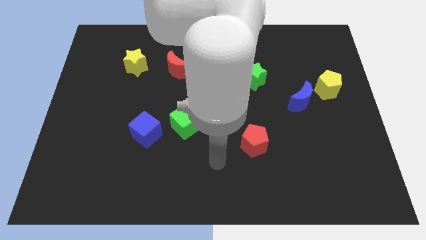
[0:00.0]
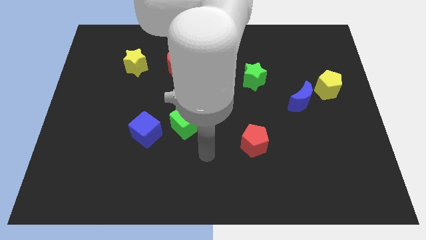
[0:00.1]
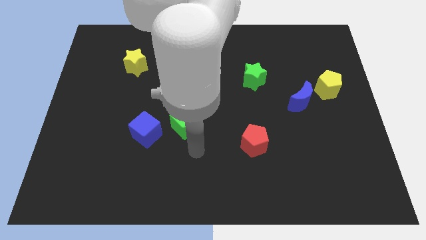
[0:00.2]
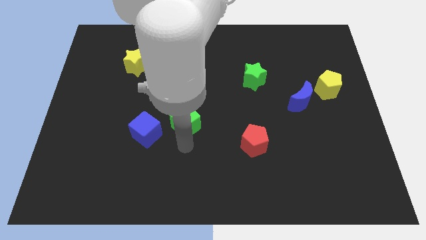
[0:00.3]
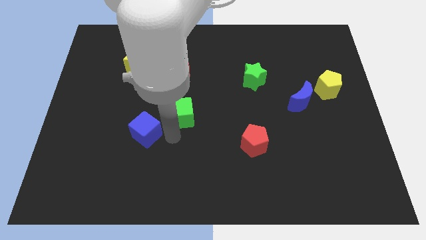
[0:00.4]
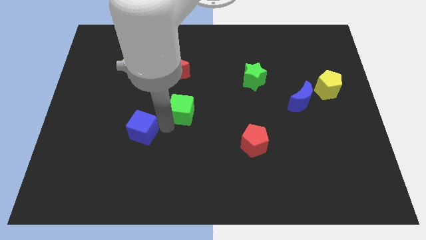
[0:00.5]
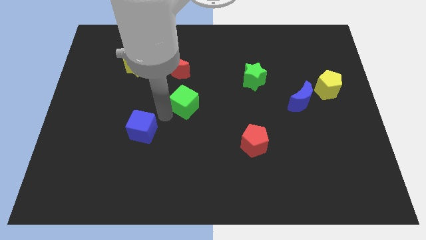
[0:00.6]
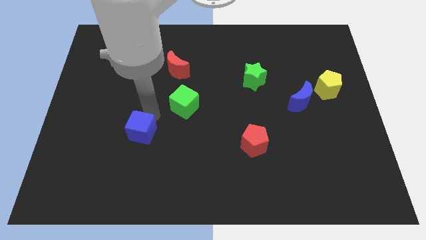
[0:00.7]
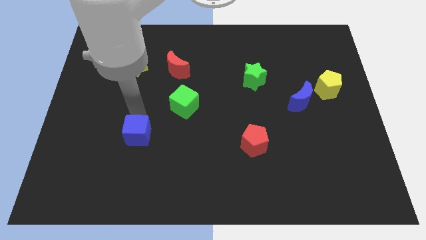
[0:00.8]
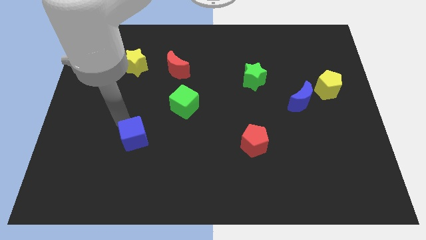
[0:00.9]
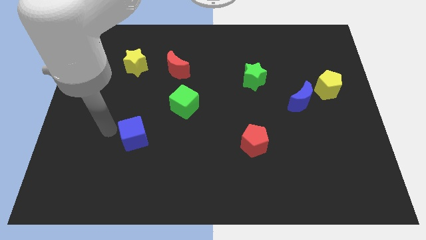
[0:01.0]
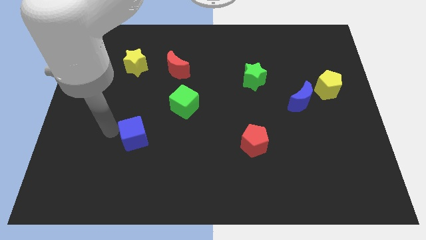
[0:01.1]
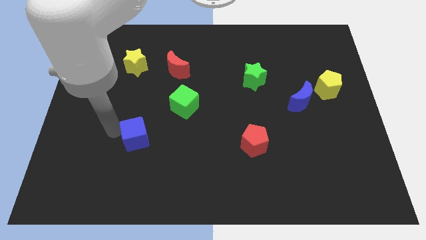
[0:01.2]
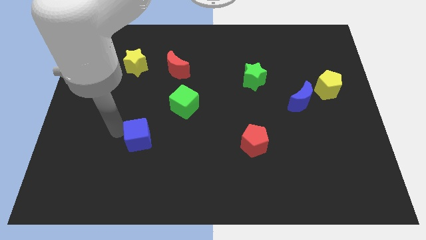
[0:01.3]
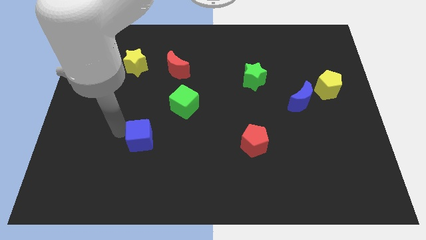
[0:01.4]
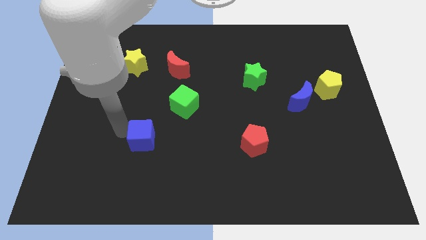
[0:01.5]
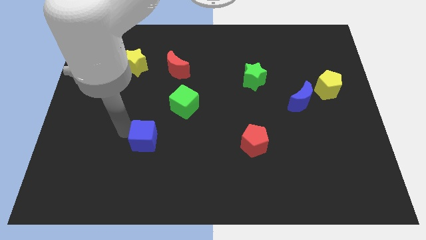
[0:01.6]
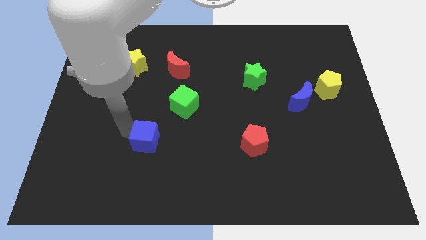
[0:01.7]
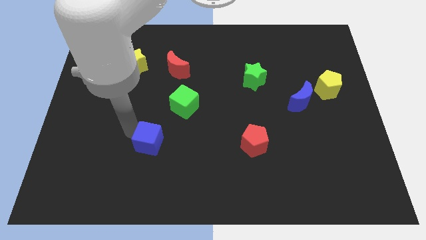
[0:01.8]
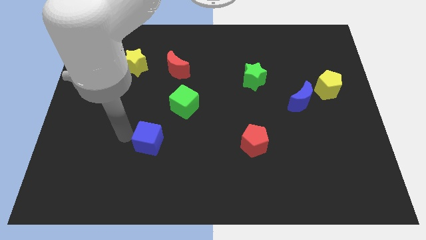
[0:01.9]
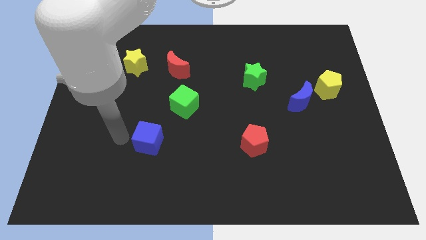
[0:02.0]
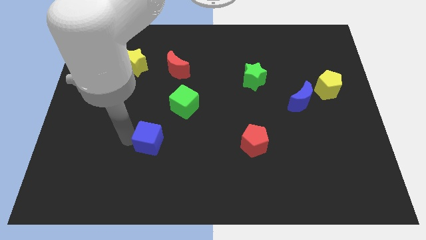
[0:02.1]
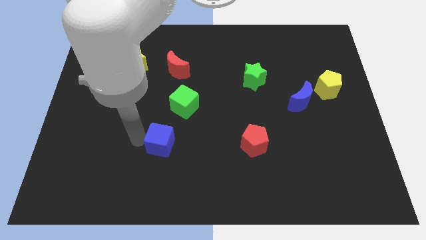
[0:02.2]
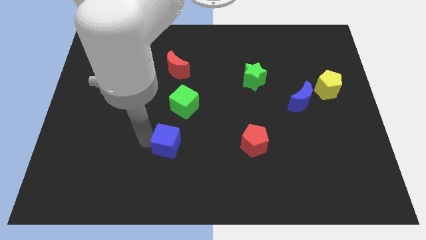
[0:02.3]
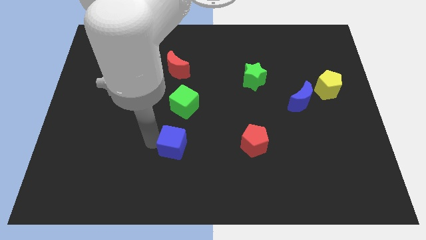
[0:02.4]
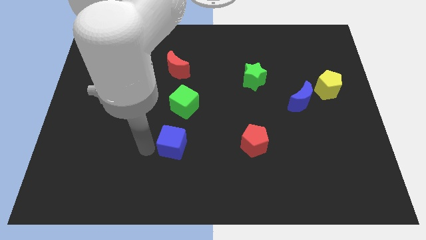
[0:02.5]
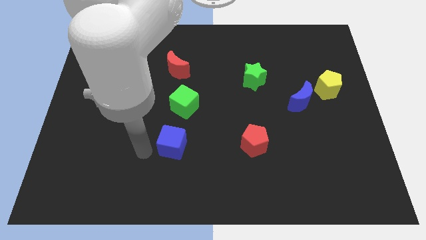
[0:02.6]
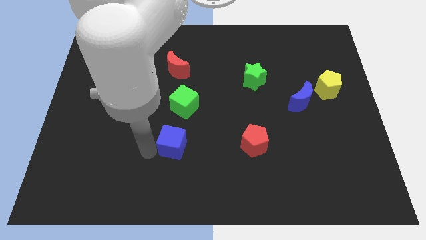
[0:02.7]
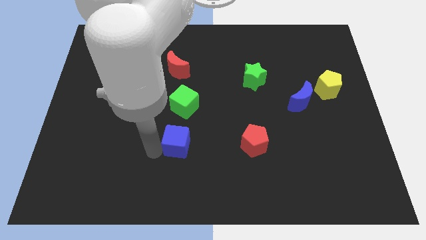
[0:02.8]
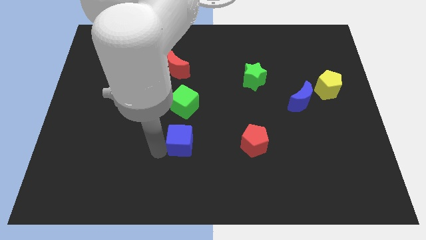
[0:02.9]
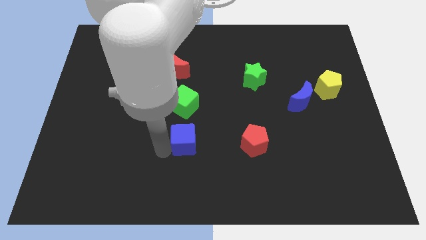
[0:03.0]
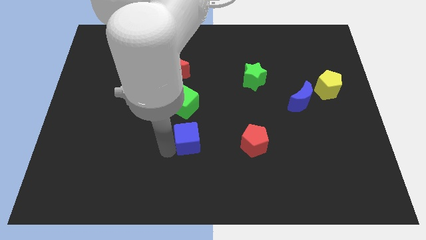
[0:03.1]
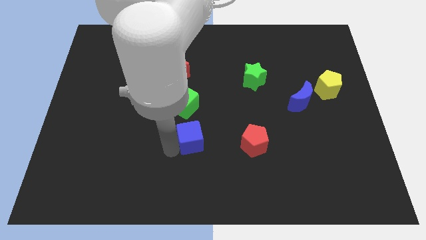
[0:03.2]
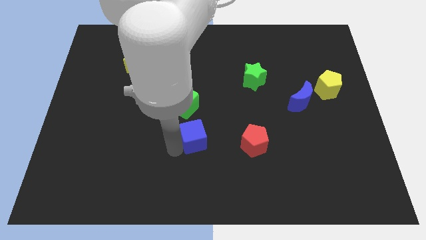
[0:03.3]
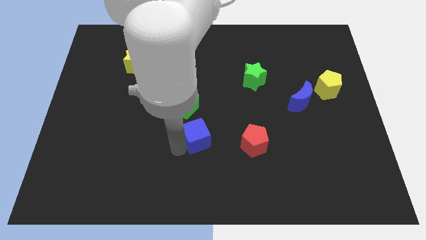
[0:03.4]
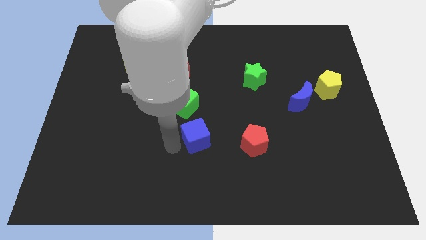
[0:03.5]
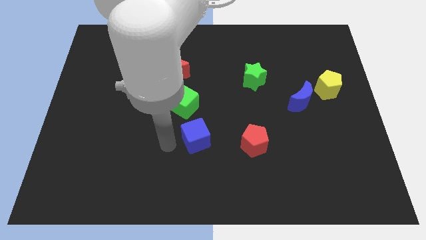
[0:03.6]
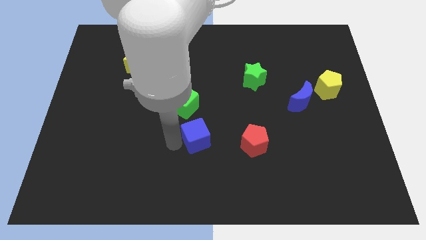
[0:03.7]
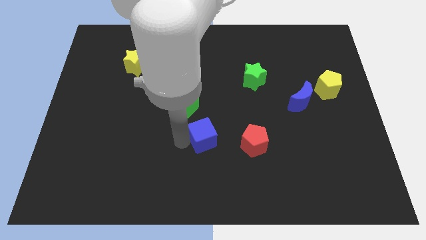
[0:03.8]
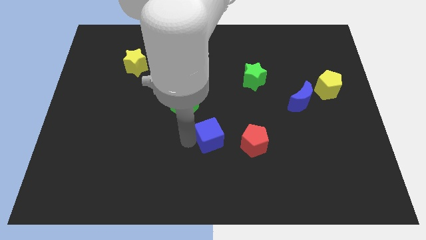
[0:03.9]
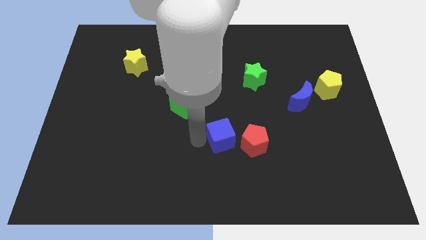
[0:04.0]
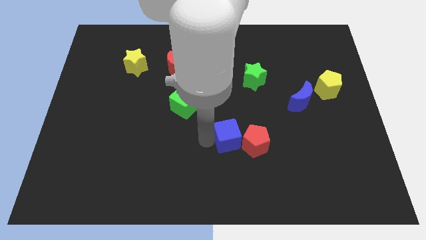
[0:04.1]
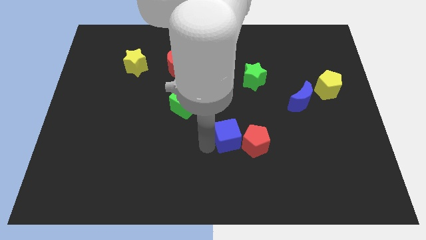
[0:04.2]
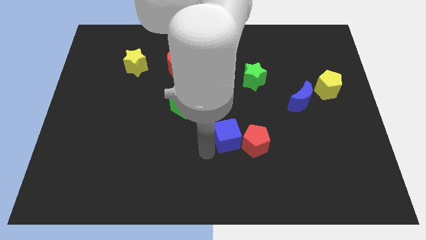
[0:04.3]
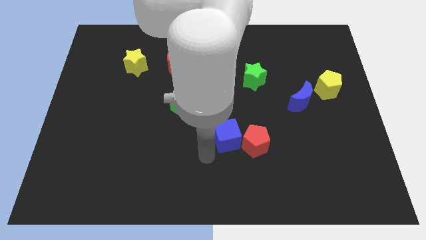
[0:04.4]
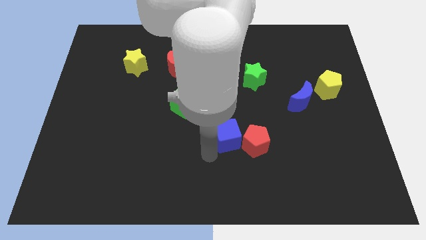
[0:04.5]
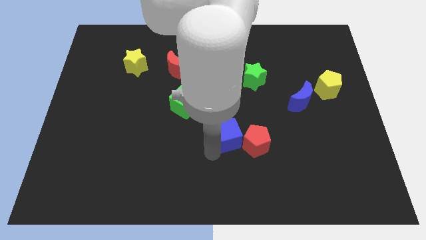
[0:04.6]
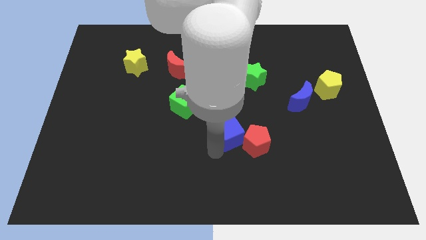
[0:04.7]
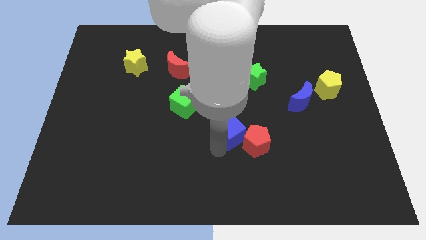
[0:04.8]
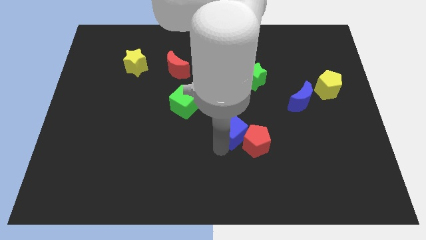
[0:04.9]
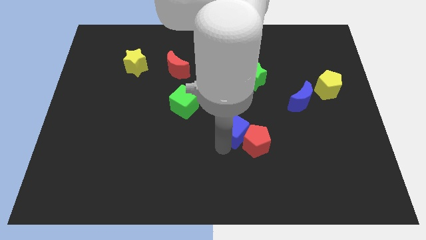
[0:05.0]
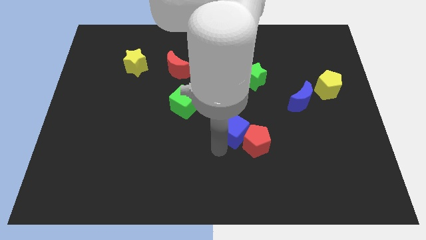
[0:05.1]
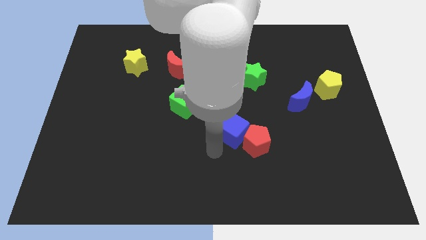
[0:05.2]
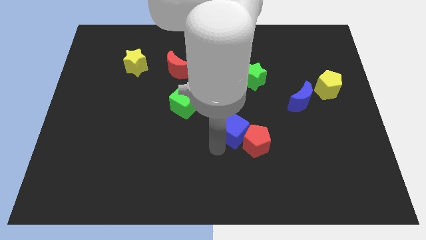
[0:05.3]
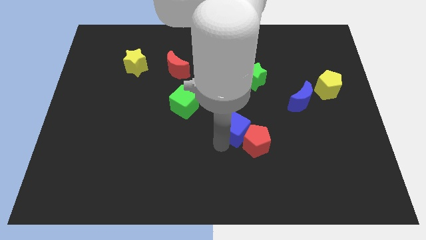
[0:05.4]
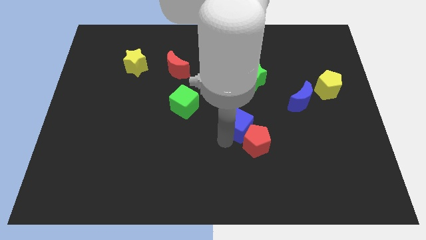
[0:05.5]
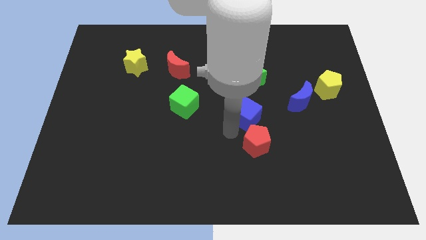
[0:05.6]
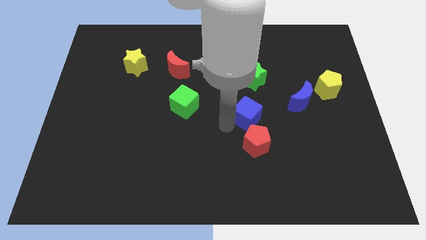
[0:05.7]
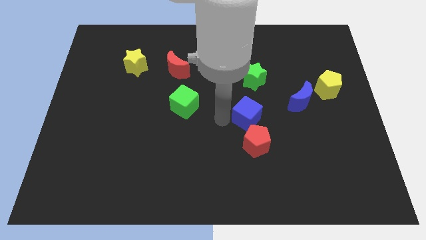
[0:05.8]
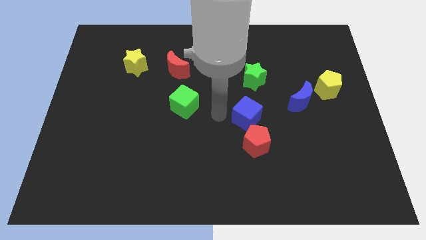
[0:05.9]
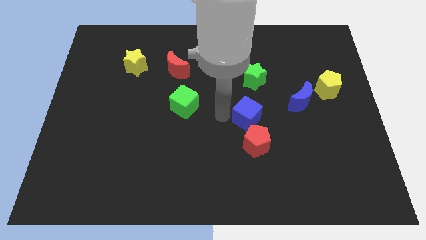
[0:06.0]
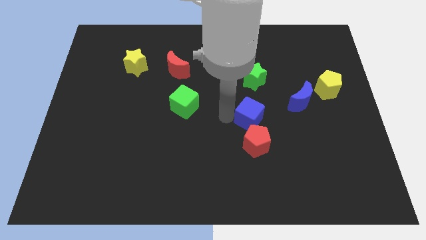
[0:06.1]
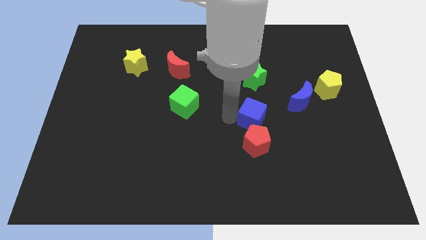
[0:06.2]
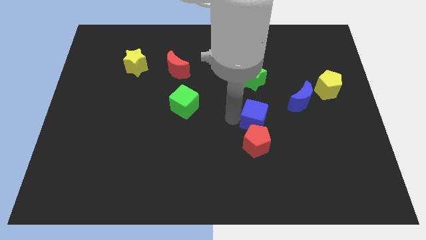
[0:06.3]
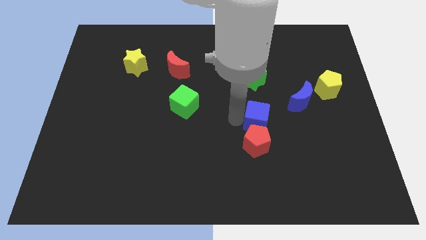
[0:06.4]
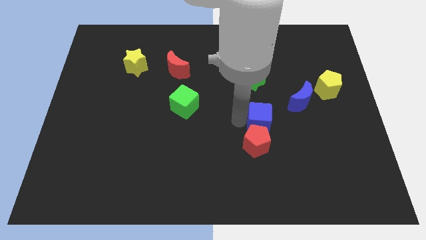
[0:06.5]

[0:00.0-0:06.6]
move the blue cube to the bottom left side of the blue moon
